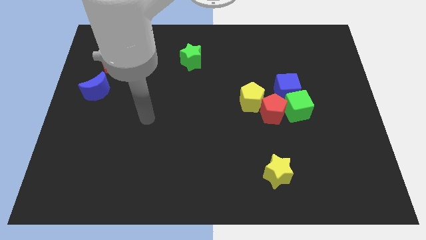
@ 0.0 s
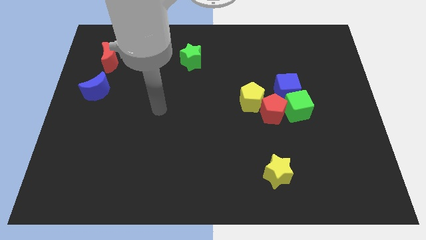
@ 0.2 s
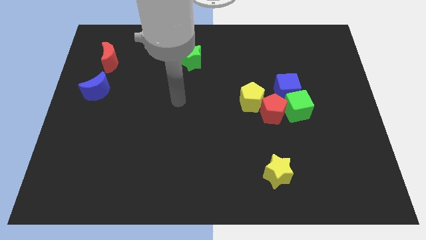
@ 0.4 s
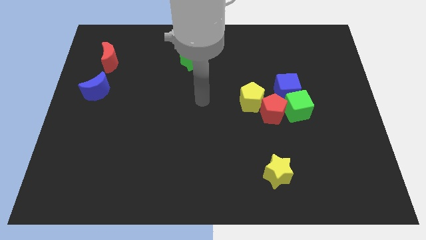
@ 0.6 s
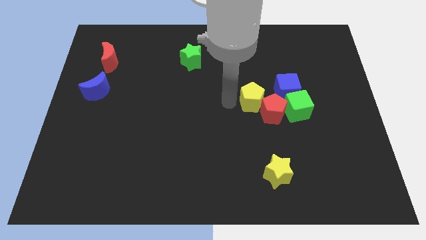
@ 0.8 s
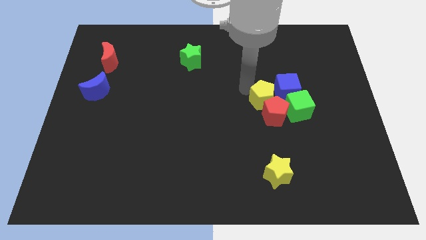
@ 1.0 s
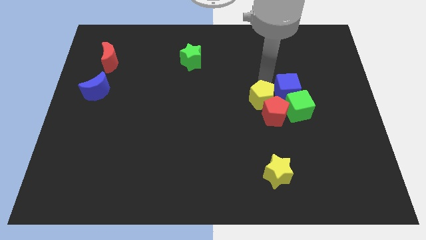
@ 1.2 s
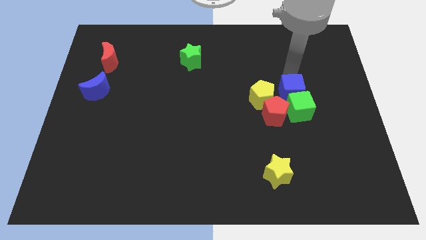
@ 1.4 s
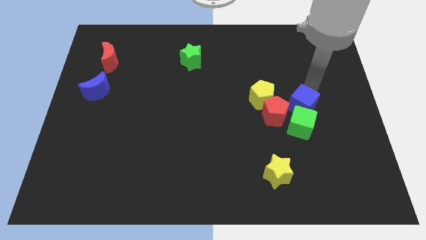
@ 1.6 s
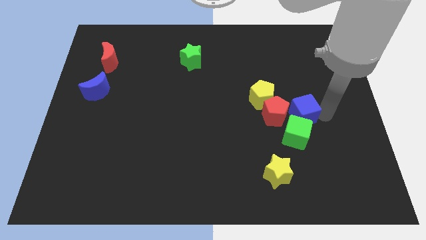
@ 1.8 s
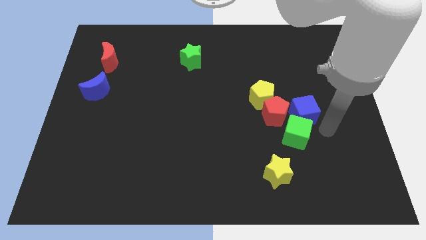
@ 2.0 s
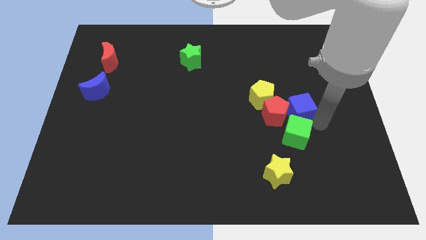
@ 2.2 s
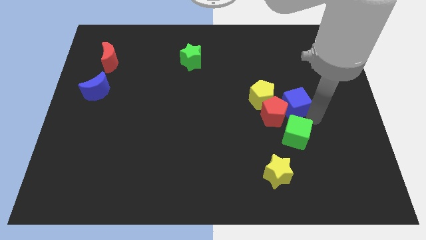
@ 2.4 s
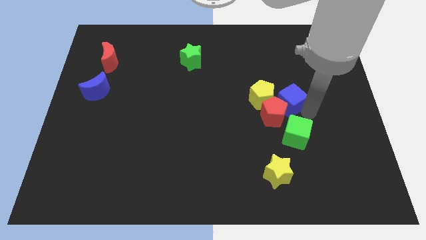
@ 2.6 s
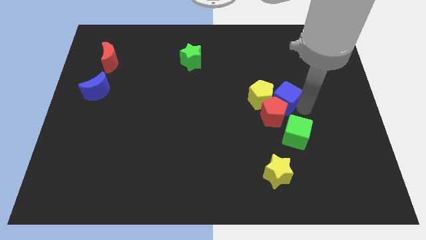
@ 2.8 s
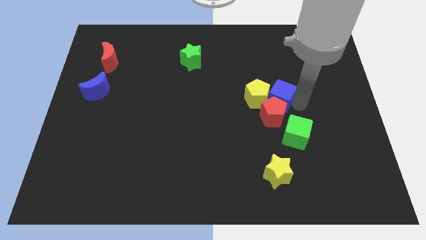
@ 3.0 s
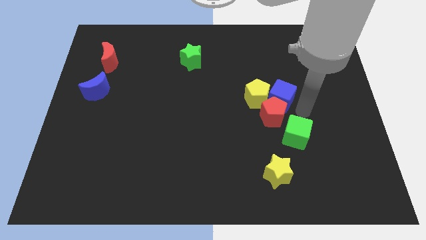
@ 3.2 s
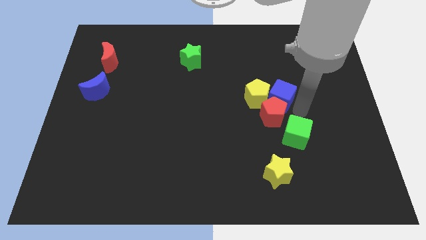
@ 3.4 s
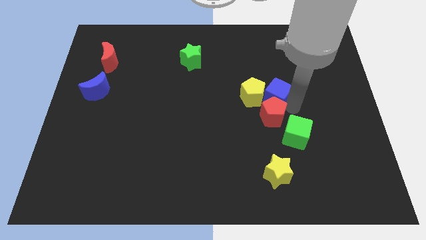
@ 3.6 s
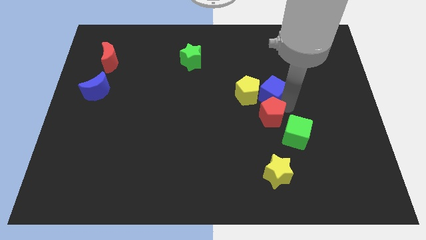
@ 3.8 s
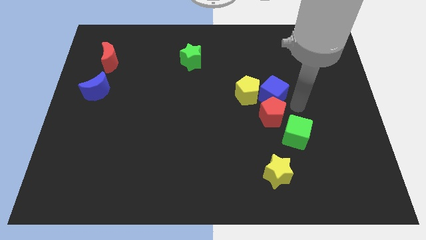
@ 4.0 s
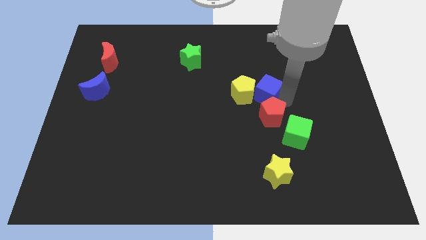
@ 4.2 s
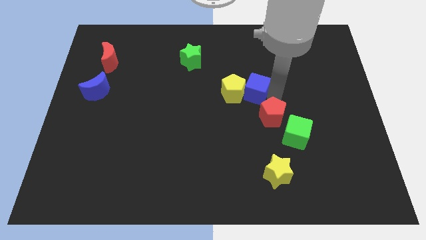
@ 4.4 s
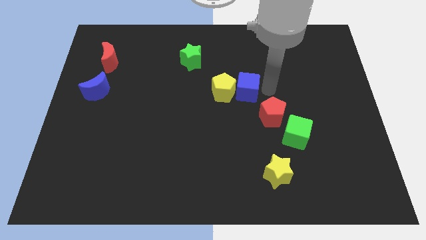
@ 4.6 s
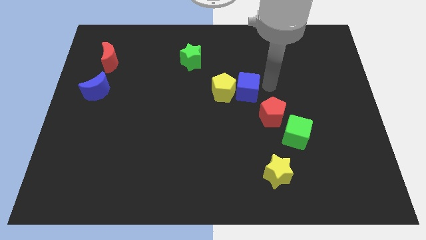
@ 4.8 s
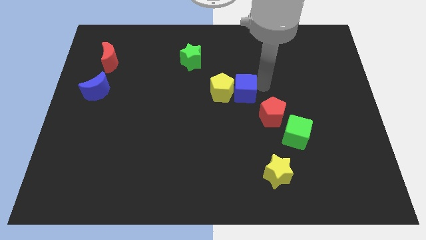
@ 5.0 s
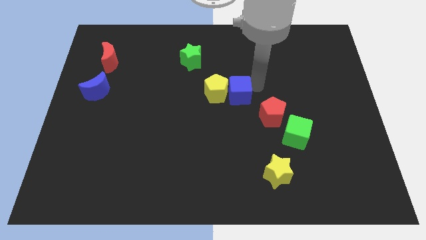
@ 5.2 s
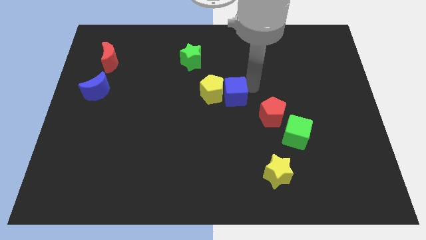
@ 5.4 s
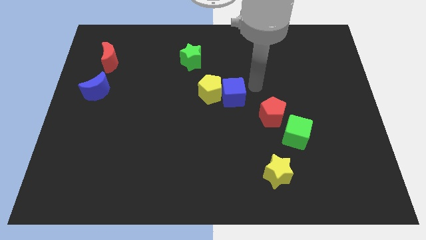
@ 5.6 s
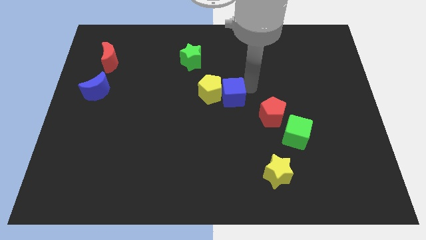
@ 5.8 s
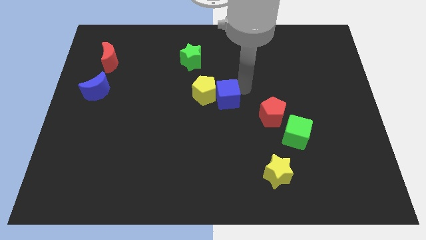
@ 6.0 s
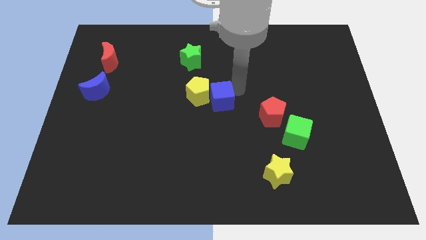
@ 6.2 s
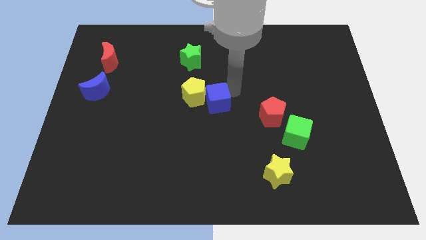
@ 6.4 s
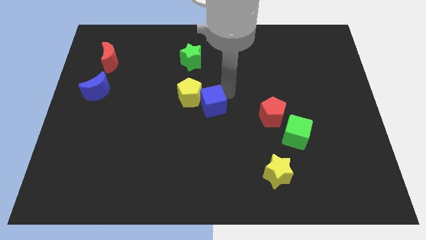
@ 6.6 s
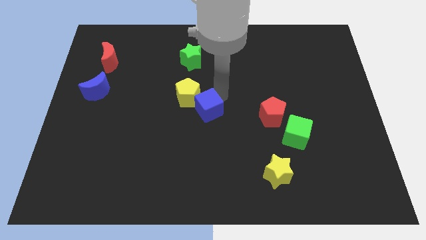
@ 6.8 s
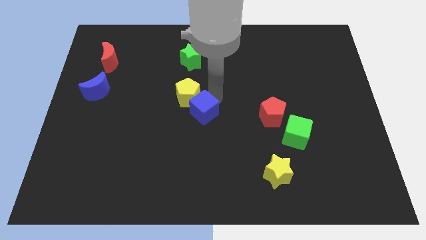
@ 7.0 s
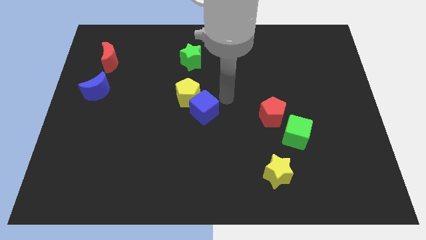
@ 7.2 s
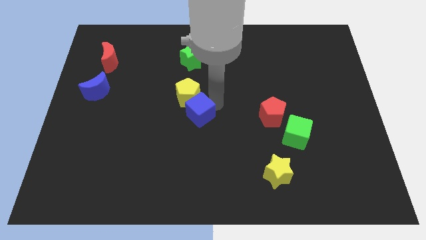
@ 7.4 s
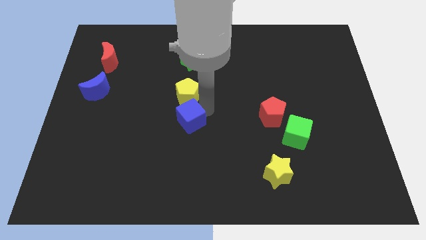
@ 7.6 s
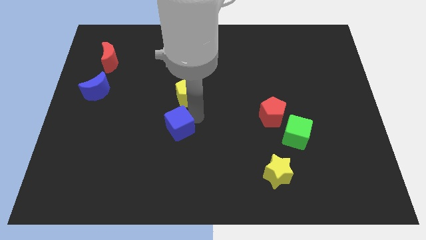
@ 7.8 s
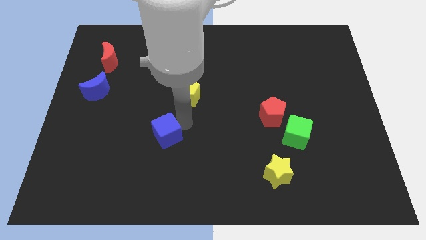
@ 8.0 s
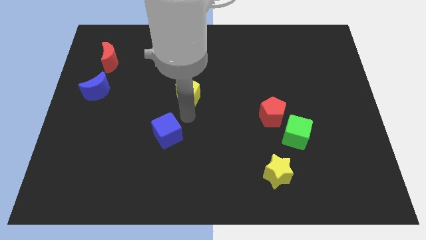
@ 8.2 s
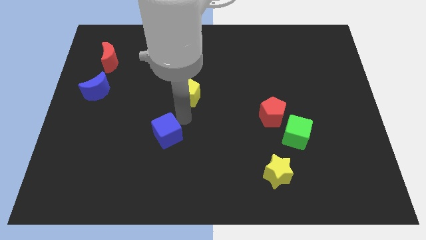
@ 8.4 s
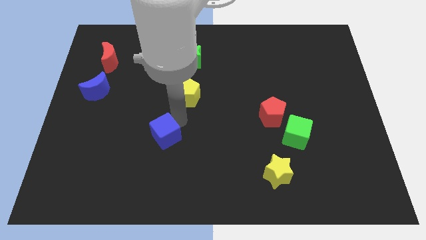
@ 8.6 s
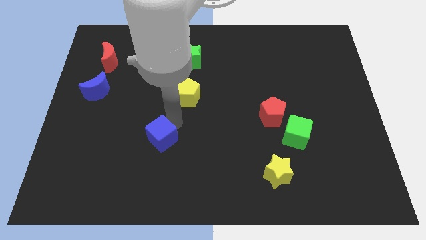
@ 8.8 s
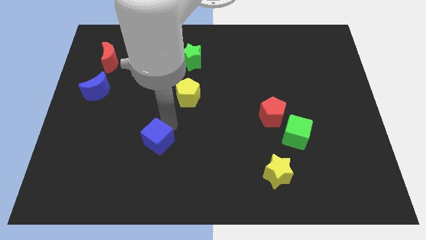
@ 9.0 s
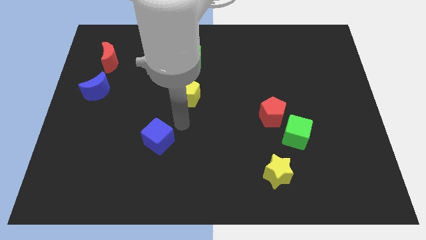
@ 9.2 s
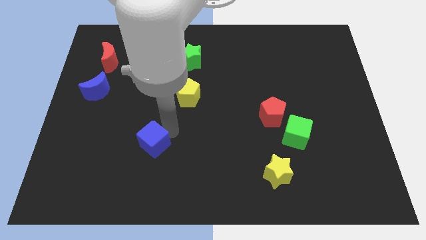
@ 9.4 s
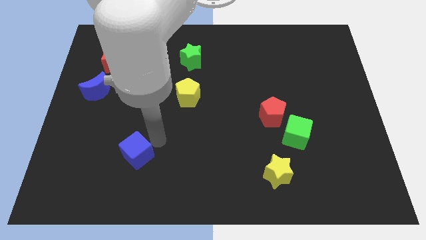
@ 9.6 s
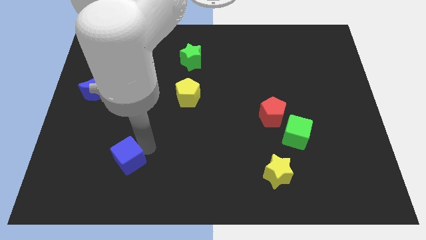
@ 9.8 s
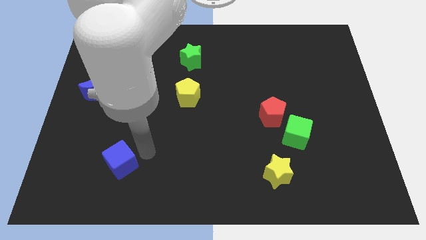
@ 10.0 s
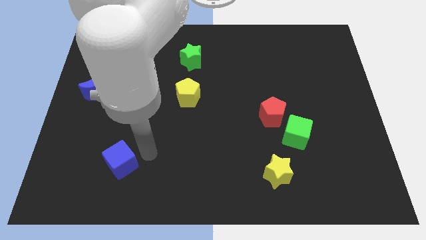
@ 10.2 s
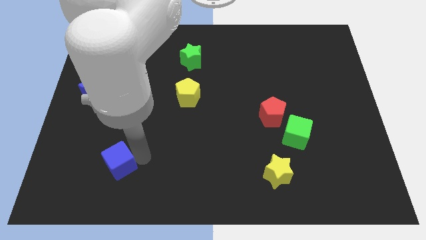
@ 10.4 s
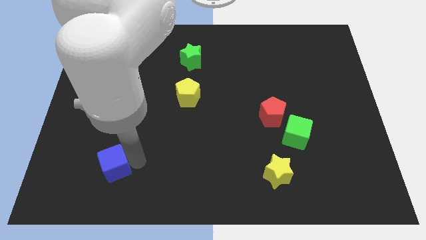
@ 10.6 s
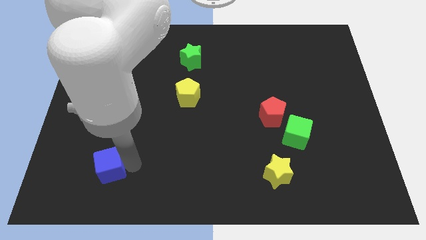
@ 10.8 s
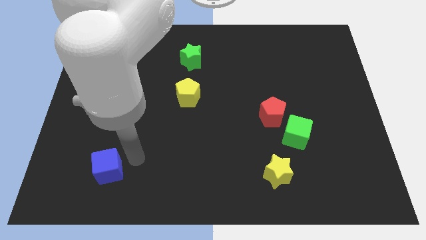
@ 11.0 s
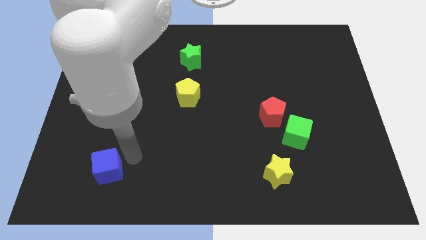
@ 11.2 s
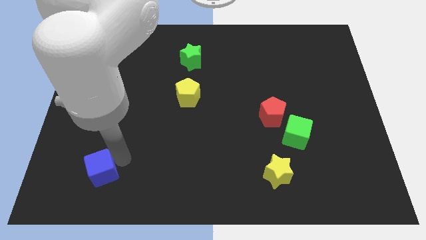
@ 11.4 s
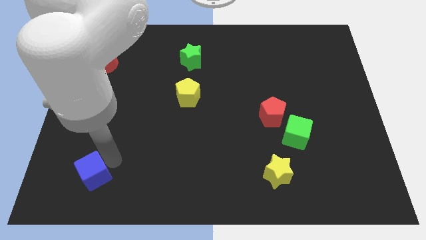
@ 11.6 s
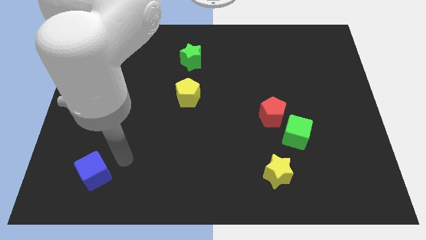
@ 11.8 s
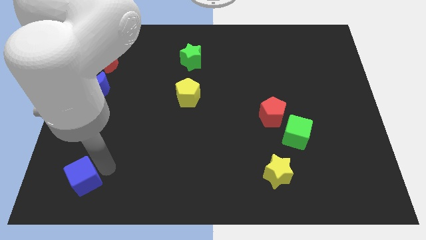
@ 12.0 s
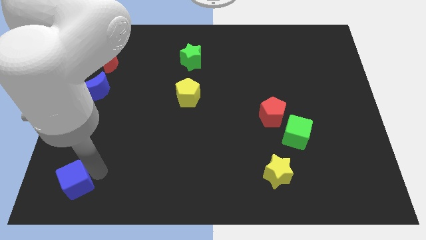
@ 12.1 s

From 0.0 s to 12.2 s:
put the blue cube to the bottom left corner
